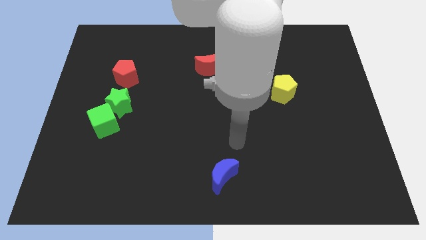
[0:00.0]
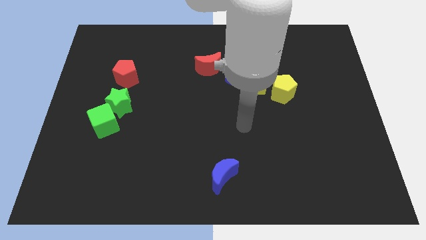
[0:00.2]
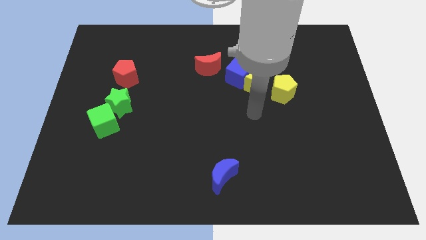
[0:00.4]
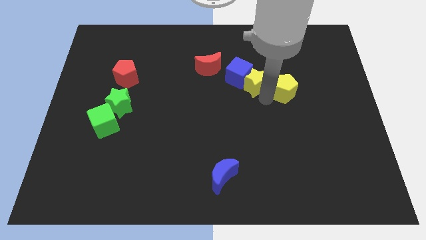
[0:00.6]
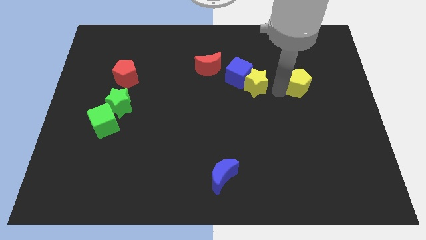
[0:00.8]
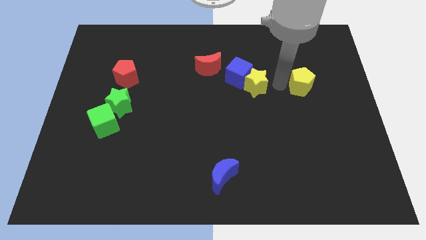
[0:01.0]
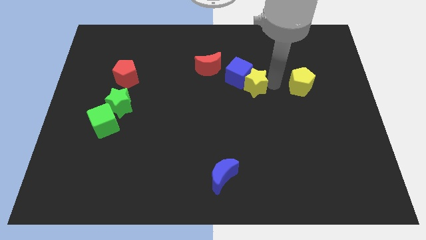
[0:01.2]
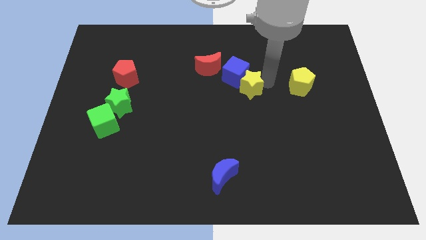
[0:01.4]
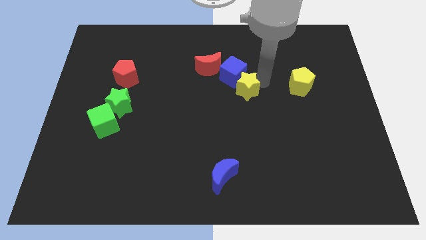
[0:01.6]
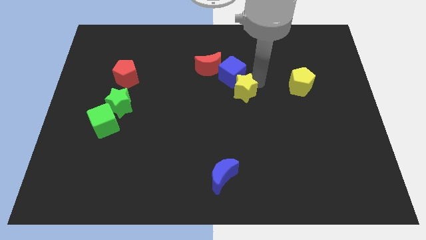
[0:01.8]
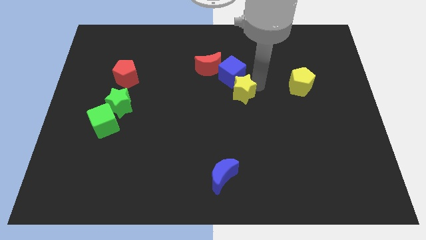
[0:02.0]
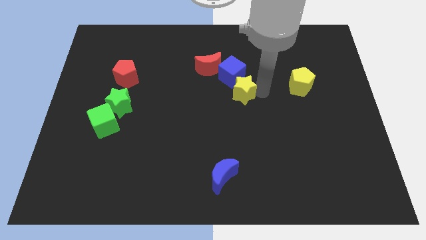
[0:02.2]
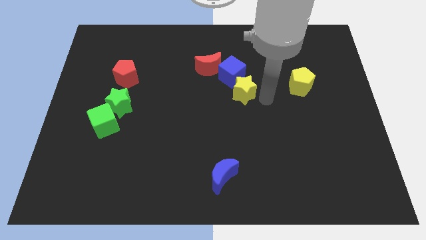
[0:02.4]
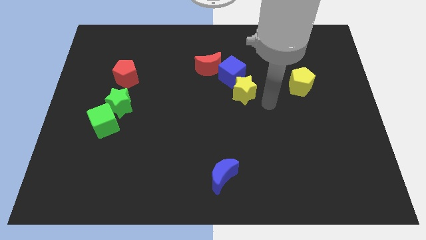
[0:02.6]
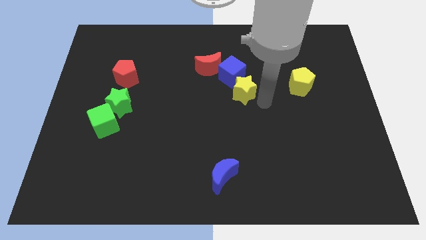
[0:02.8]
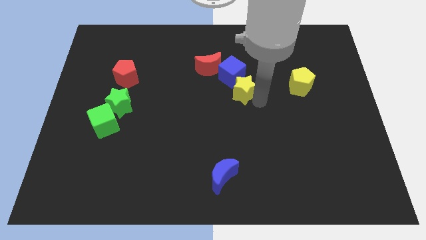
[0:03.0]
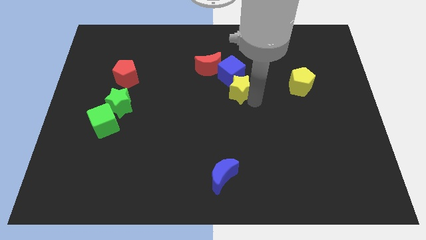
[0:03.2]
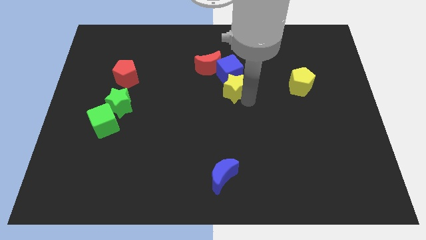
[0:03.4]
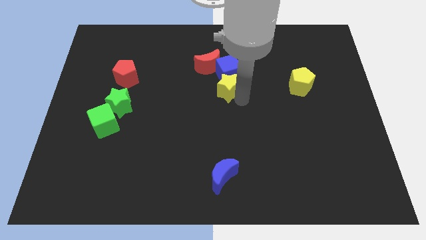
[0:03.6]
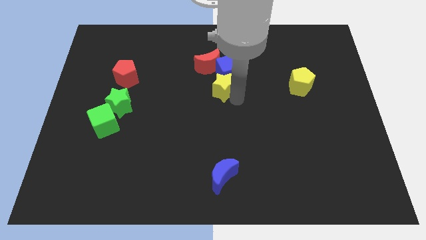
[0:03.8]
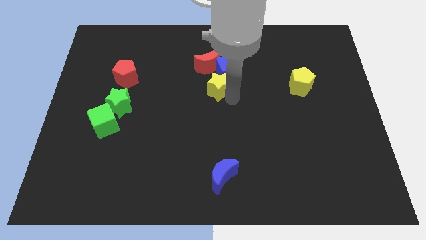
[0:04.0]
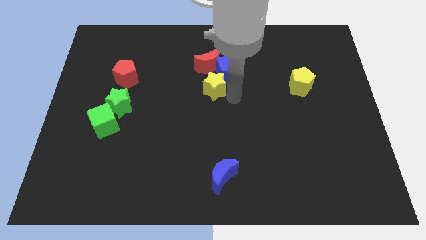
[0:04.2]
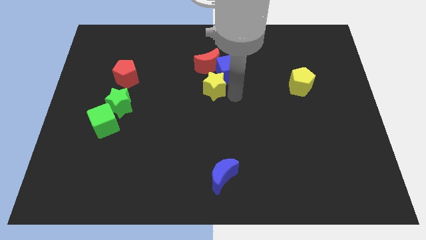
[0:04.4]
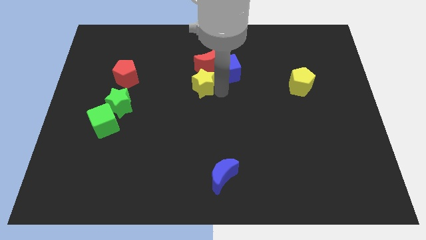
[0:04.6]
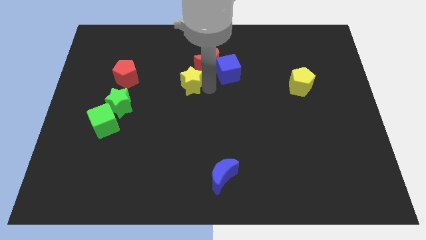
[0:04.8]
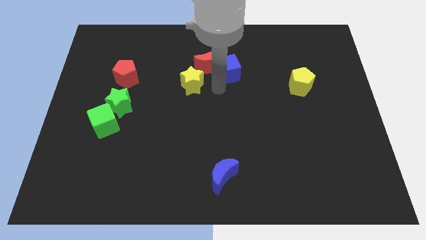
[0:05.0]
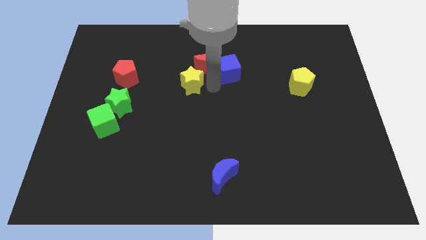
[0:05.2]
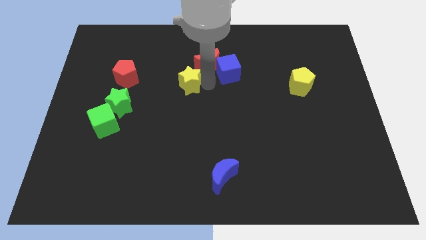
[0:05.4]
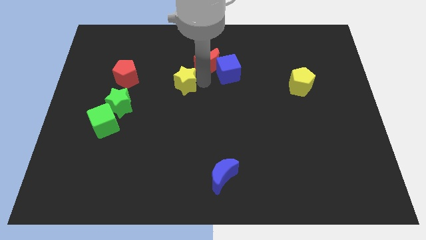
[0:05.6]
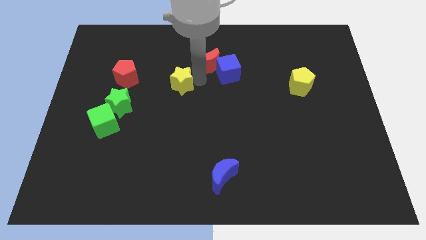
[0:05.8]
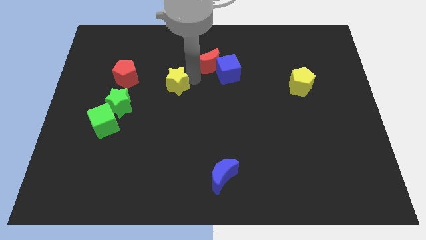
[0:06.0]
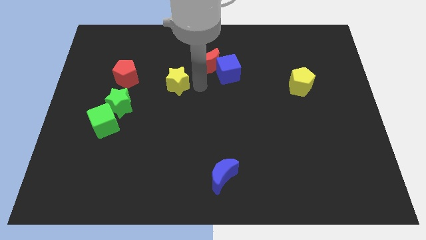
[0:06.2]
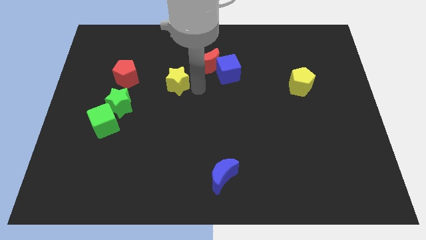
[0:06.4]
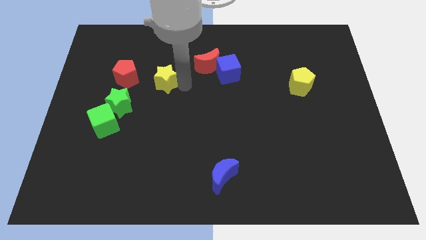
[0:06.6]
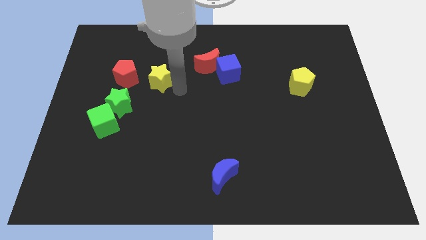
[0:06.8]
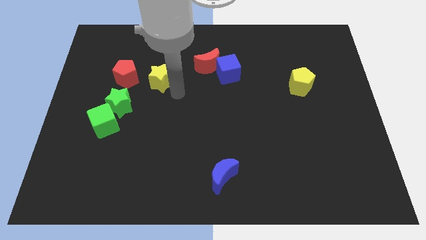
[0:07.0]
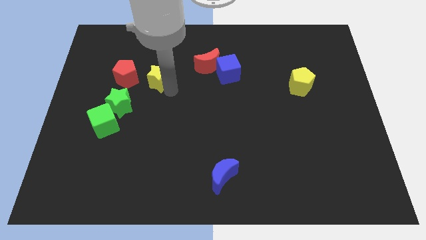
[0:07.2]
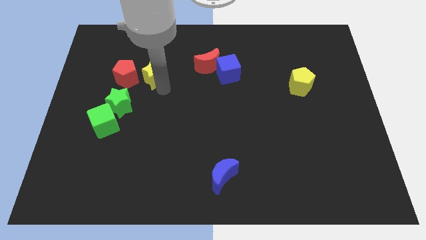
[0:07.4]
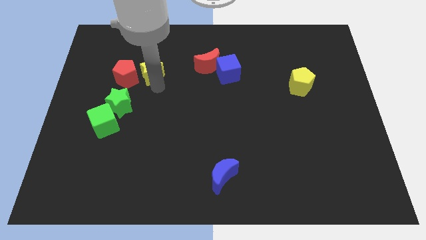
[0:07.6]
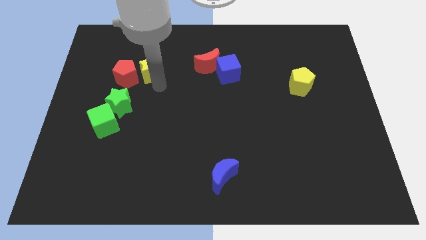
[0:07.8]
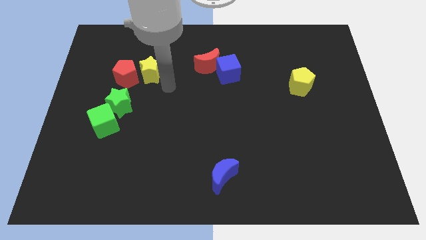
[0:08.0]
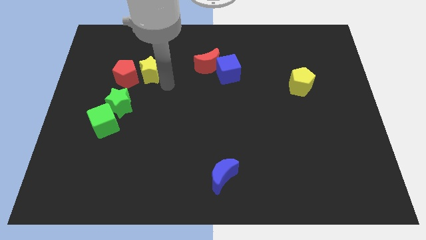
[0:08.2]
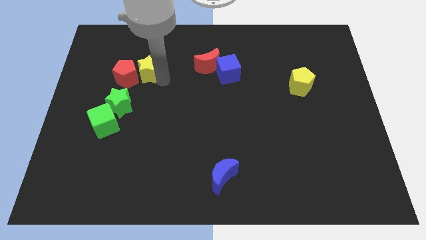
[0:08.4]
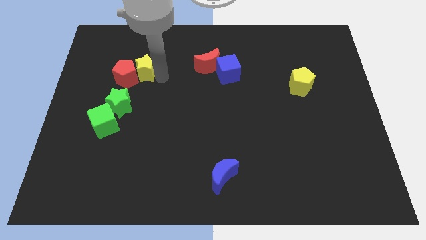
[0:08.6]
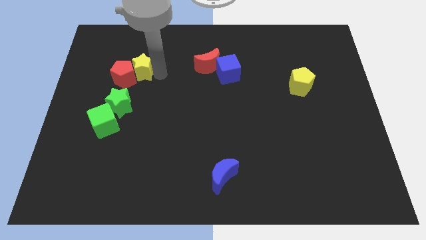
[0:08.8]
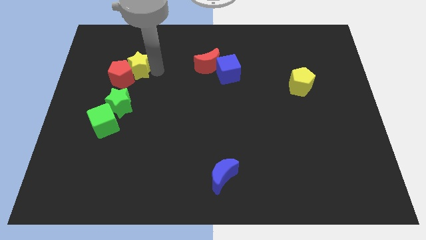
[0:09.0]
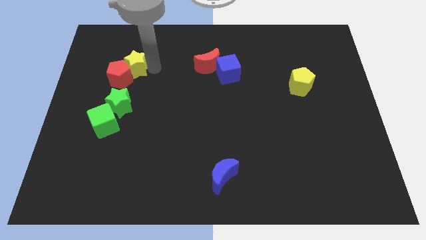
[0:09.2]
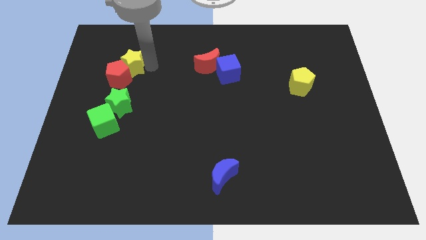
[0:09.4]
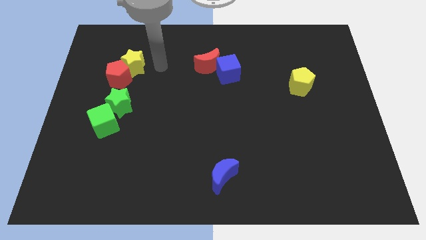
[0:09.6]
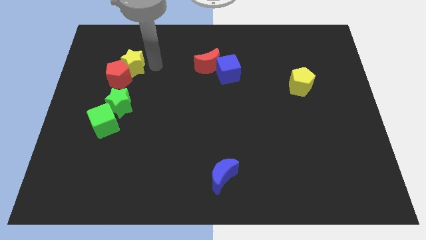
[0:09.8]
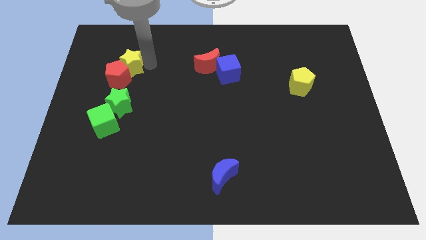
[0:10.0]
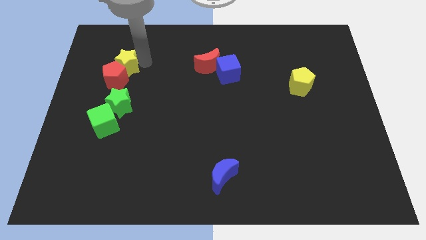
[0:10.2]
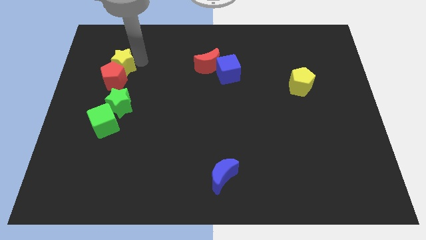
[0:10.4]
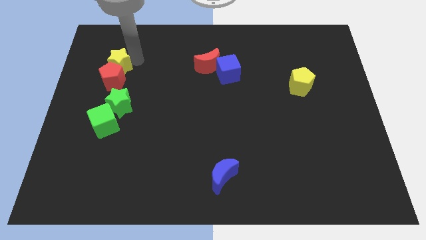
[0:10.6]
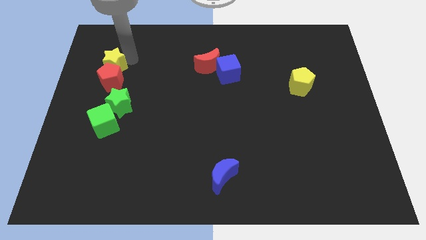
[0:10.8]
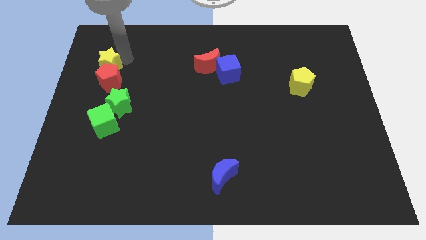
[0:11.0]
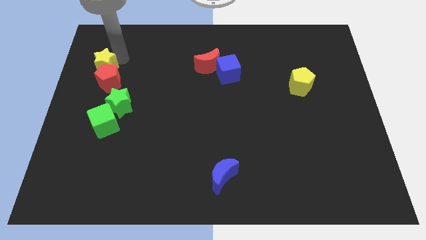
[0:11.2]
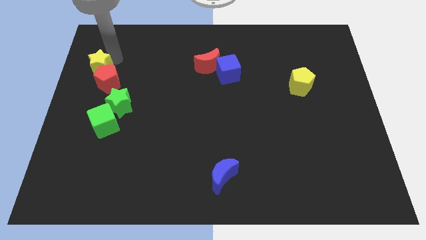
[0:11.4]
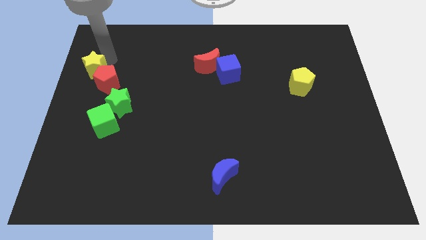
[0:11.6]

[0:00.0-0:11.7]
slide the yellow star to the left side of the board
